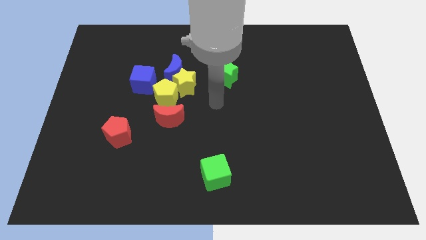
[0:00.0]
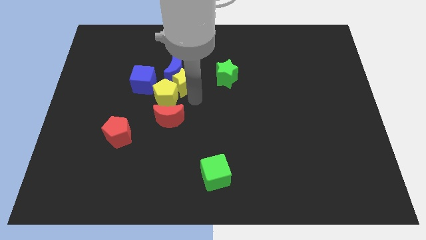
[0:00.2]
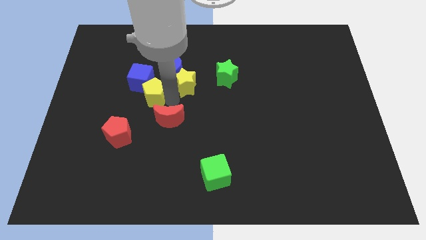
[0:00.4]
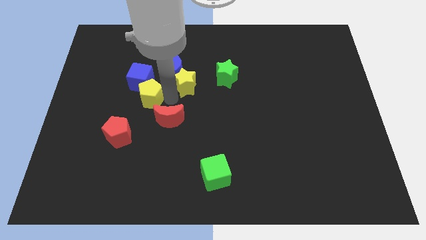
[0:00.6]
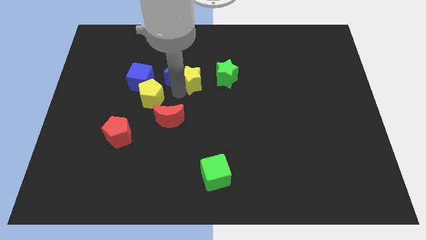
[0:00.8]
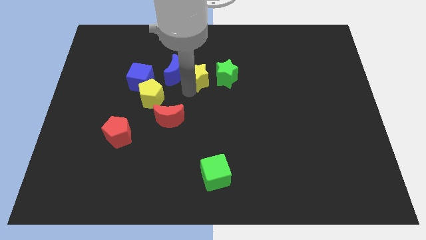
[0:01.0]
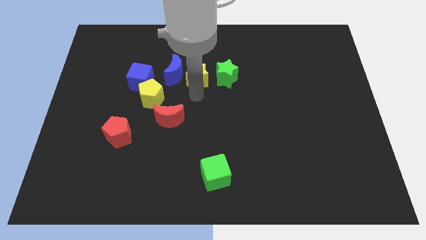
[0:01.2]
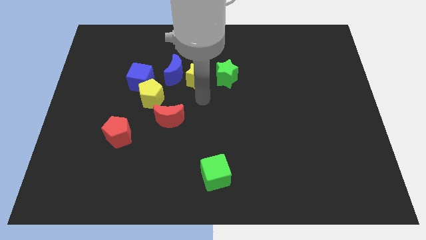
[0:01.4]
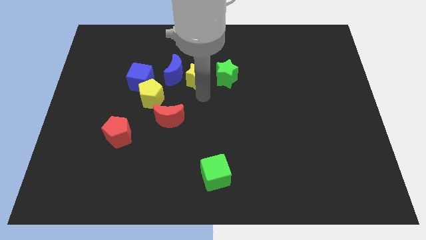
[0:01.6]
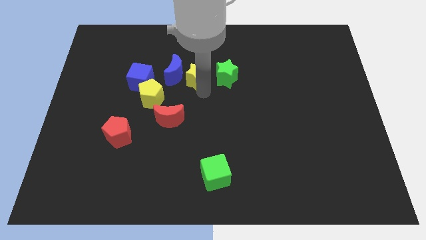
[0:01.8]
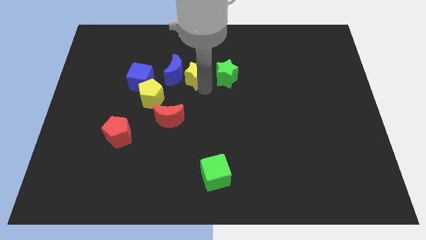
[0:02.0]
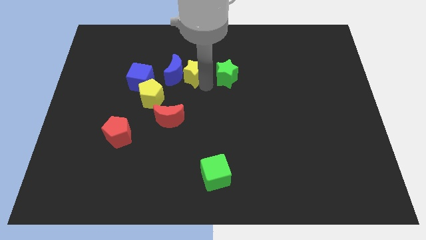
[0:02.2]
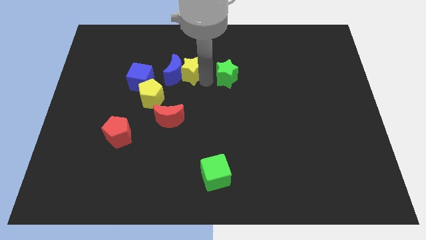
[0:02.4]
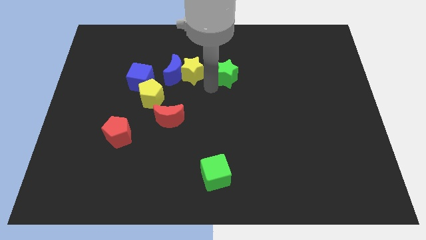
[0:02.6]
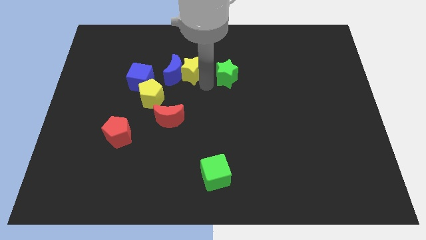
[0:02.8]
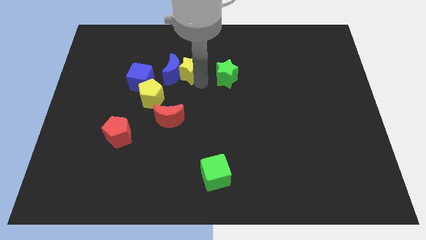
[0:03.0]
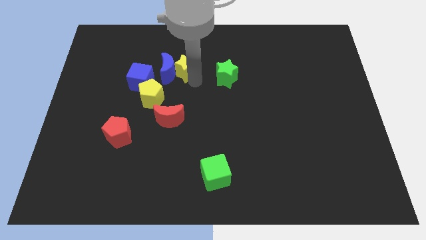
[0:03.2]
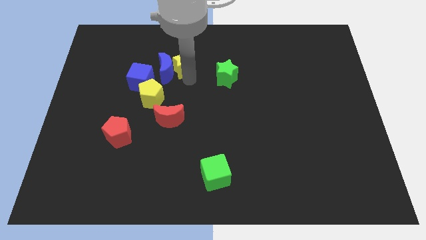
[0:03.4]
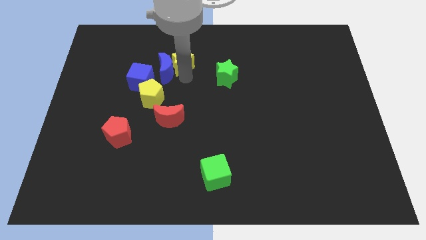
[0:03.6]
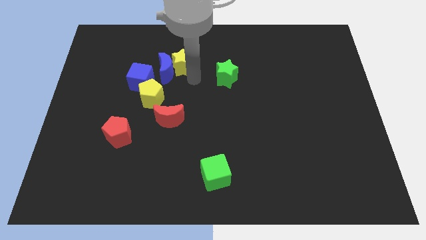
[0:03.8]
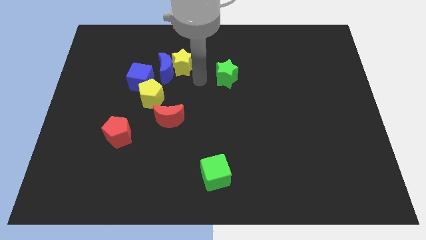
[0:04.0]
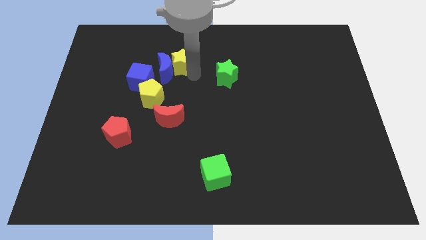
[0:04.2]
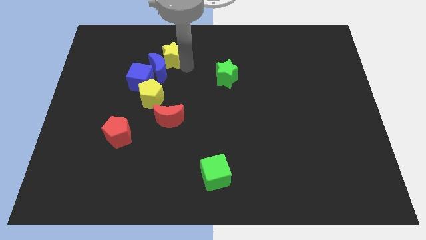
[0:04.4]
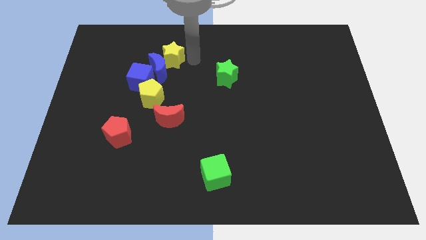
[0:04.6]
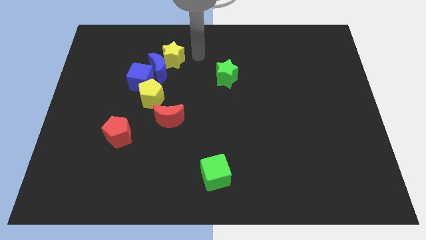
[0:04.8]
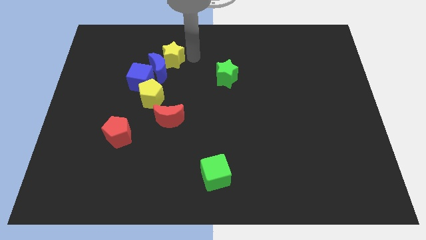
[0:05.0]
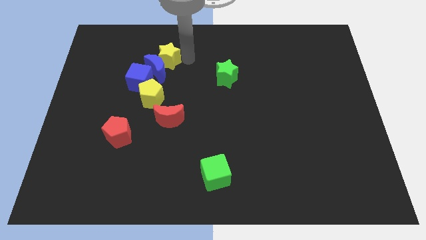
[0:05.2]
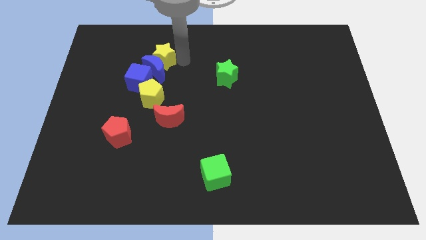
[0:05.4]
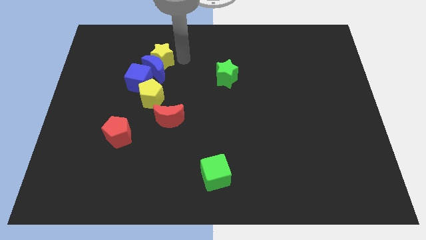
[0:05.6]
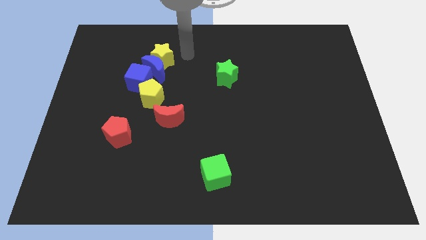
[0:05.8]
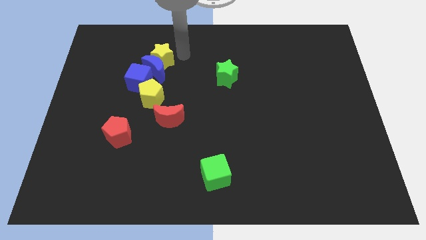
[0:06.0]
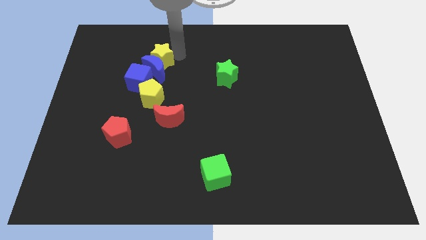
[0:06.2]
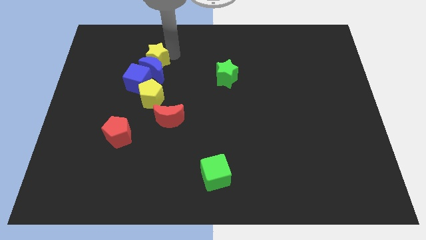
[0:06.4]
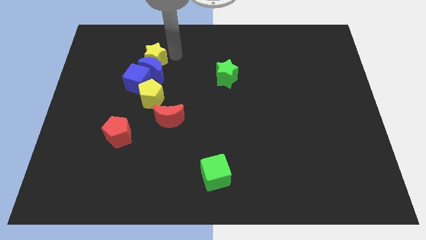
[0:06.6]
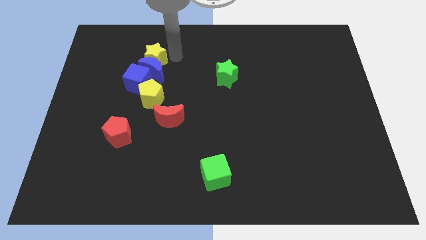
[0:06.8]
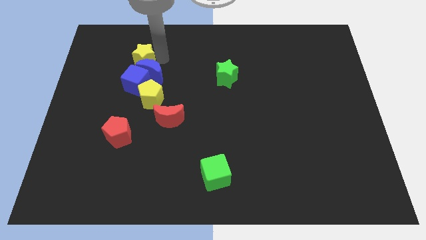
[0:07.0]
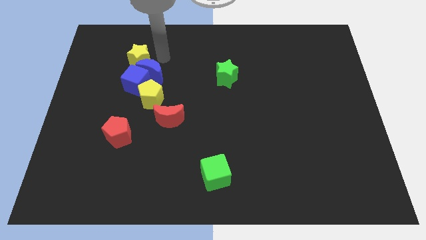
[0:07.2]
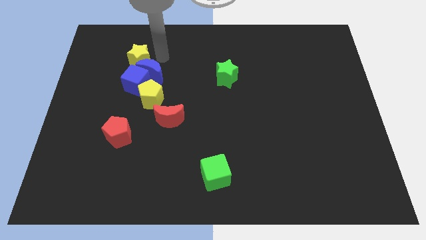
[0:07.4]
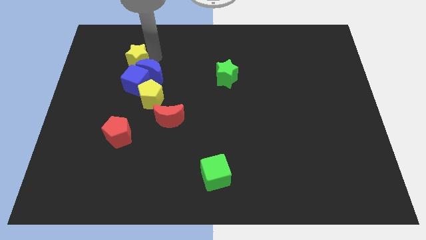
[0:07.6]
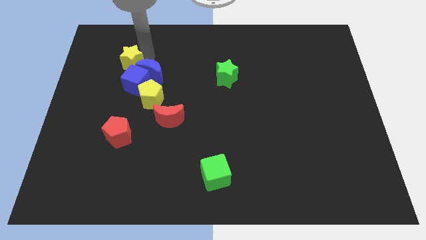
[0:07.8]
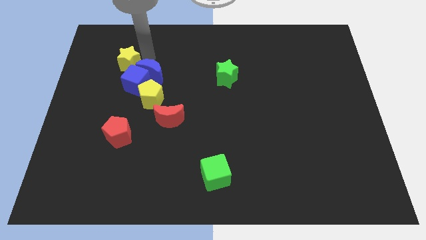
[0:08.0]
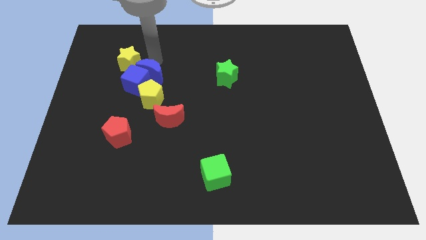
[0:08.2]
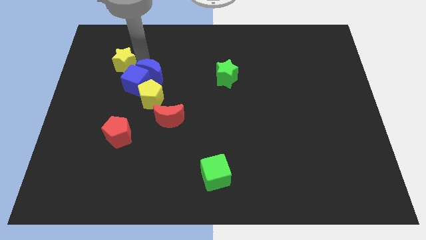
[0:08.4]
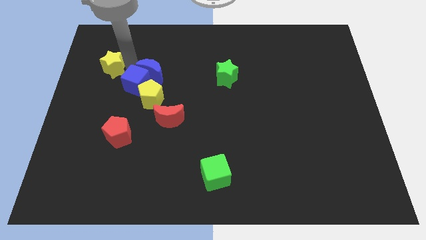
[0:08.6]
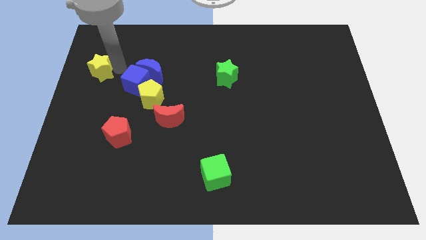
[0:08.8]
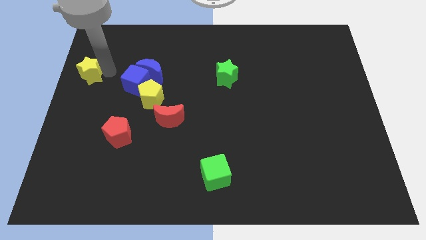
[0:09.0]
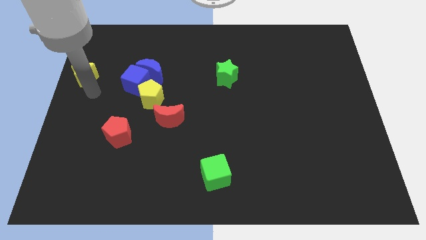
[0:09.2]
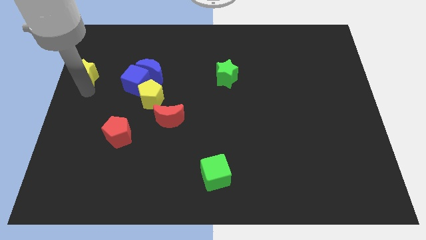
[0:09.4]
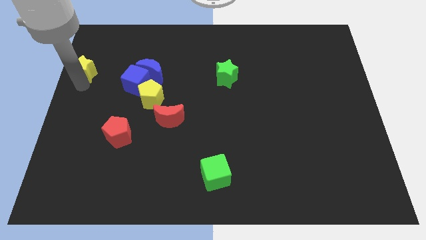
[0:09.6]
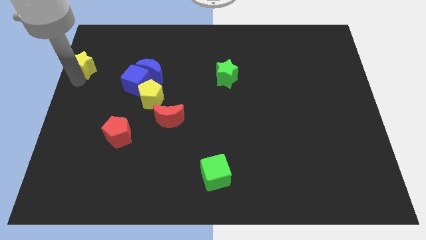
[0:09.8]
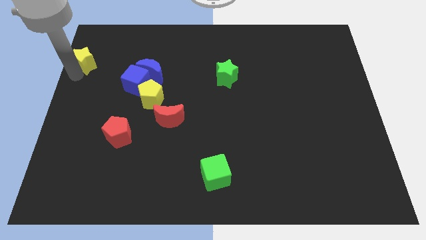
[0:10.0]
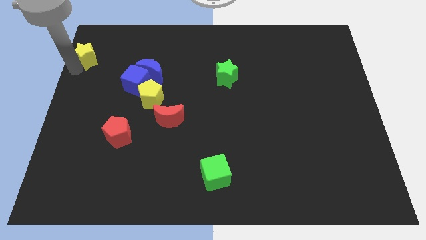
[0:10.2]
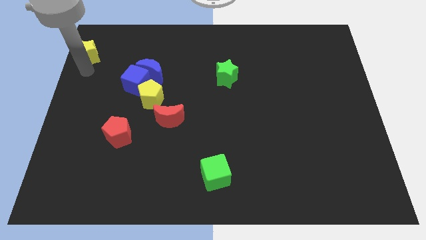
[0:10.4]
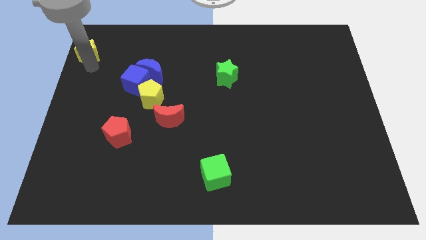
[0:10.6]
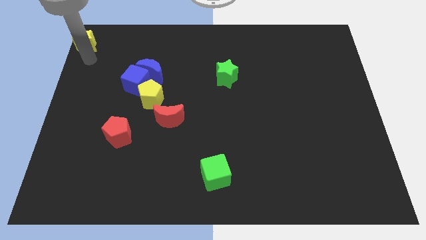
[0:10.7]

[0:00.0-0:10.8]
slide the yellow star to the upper left corner
